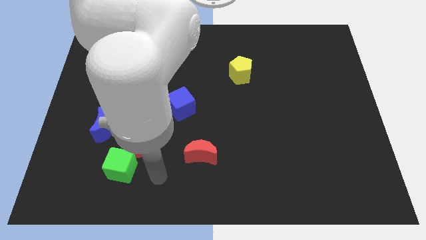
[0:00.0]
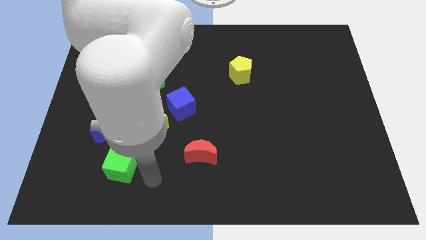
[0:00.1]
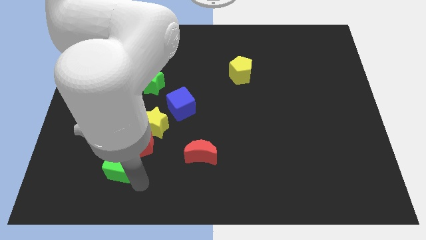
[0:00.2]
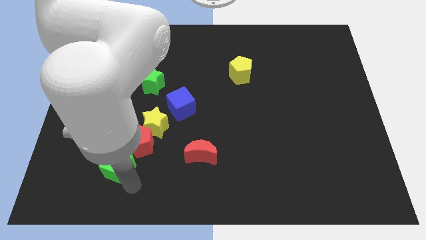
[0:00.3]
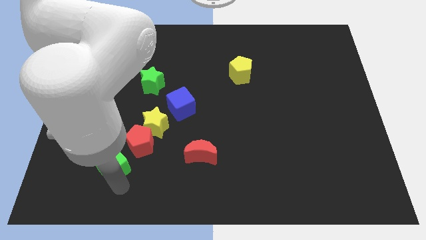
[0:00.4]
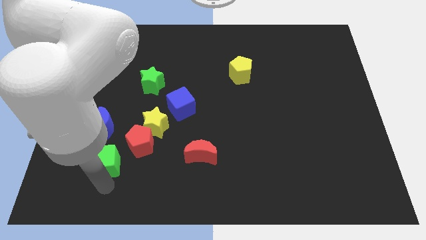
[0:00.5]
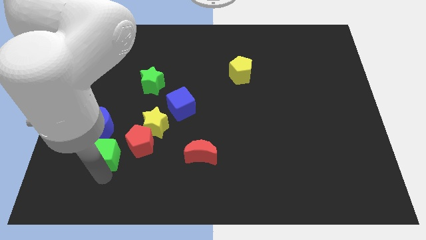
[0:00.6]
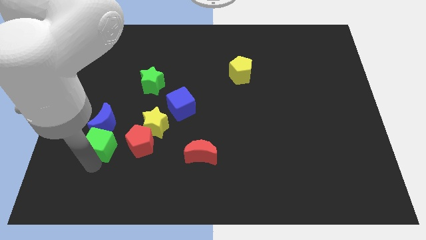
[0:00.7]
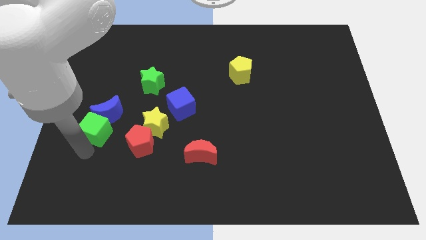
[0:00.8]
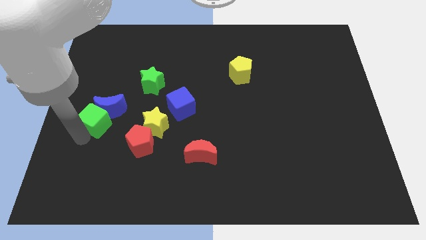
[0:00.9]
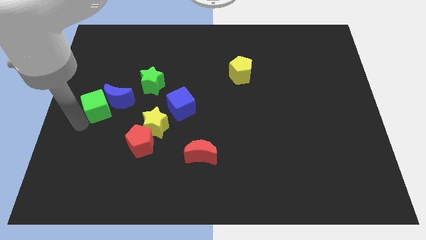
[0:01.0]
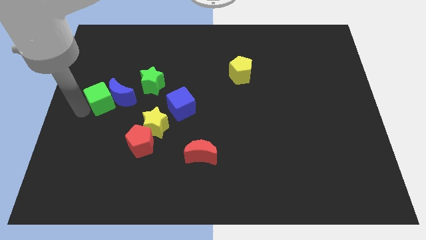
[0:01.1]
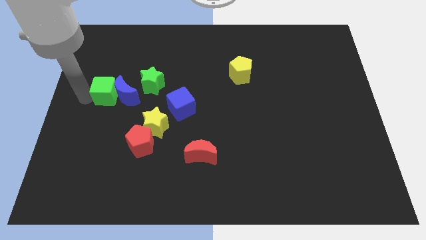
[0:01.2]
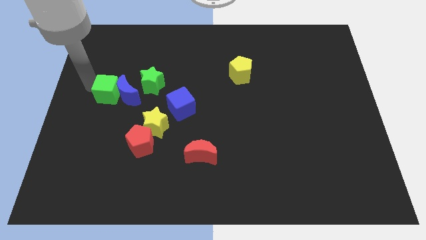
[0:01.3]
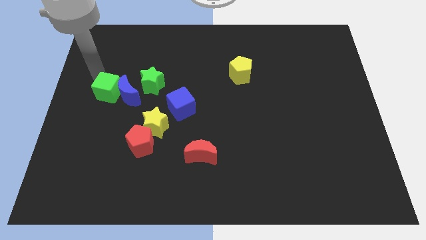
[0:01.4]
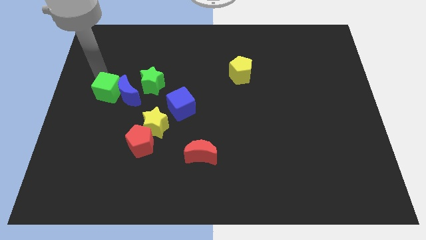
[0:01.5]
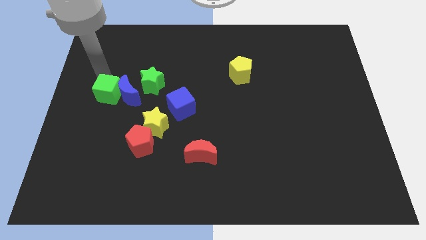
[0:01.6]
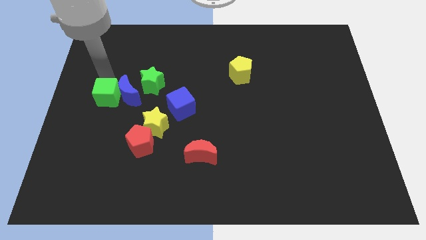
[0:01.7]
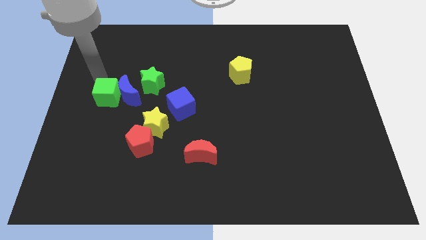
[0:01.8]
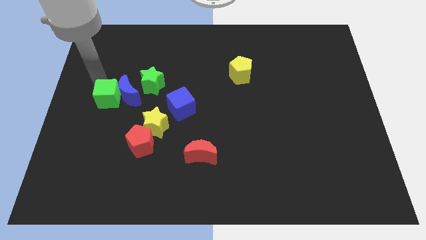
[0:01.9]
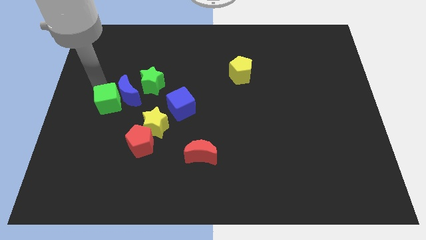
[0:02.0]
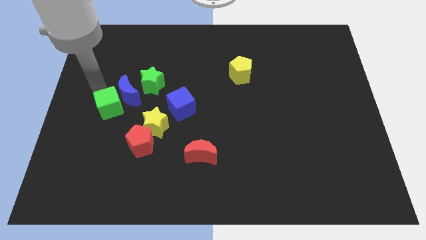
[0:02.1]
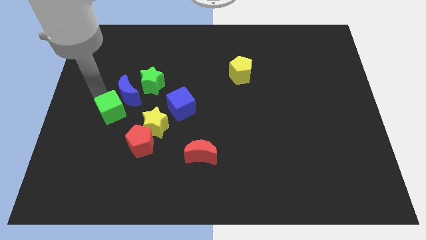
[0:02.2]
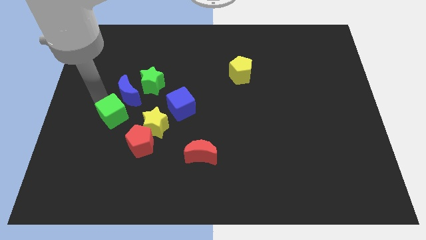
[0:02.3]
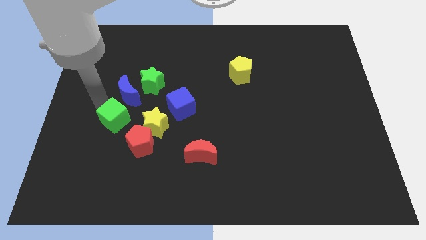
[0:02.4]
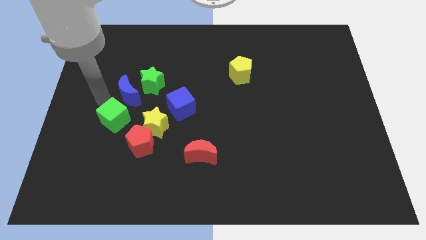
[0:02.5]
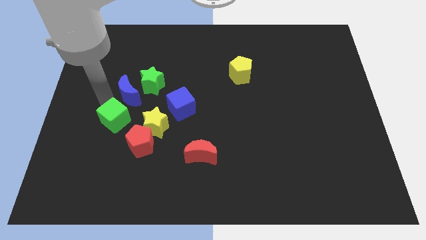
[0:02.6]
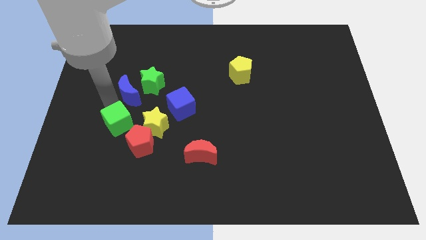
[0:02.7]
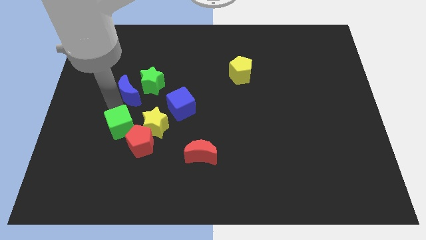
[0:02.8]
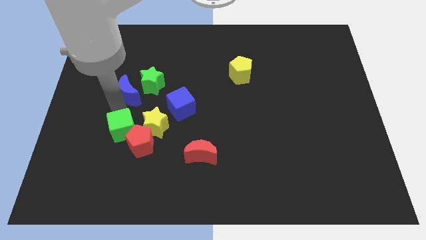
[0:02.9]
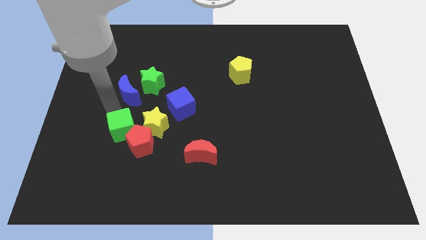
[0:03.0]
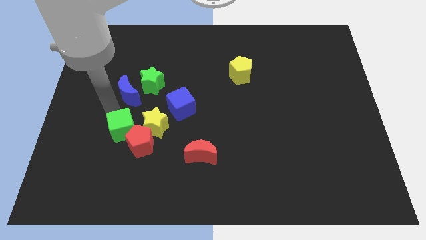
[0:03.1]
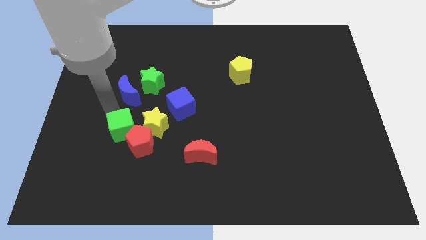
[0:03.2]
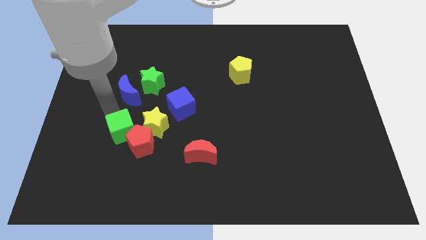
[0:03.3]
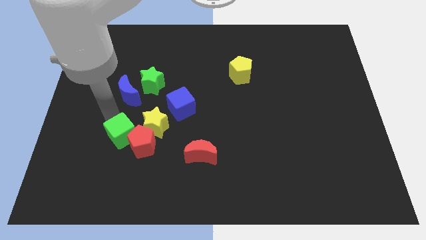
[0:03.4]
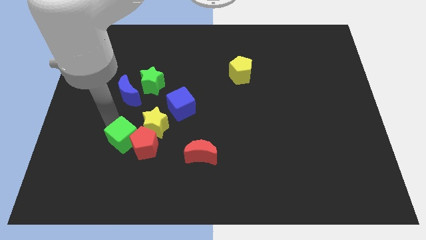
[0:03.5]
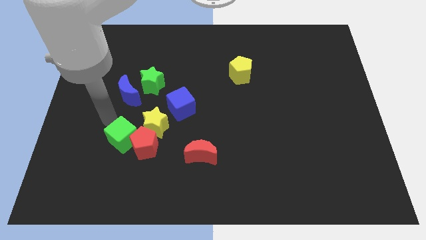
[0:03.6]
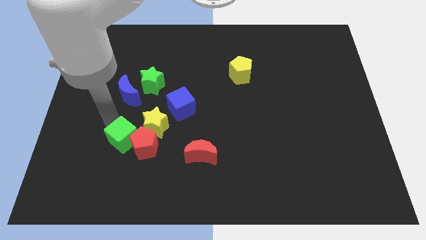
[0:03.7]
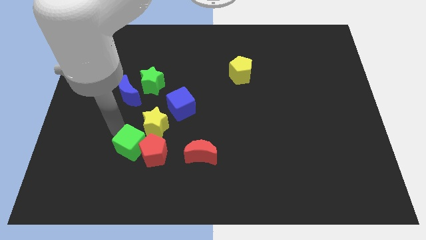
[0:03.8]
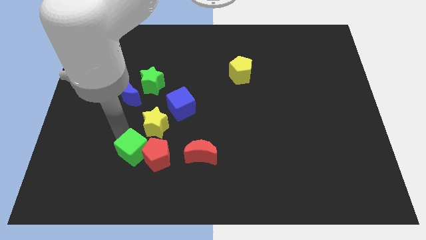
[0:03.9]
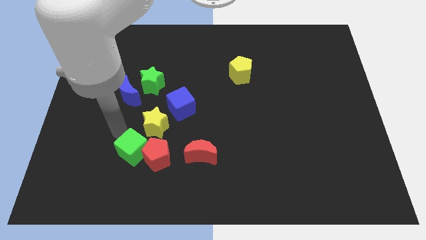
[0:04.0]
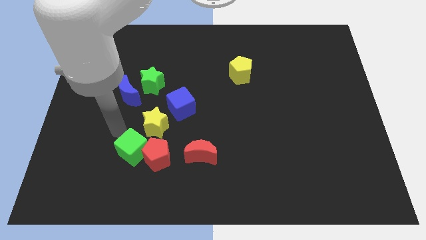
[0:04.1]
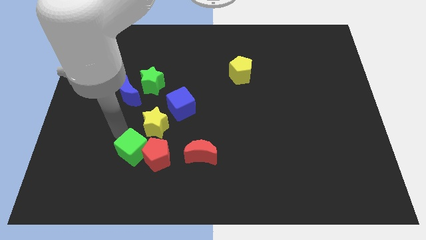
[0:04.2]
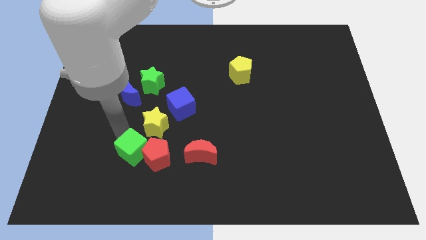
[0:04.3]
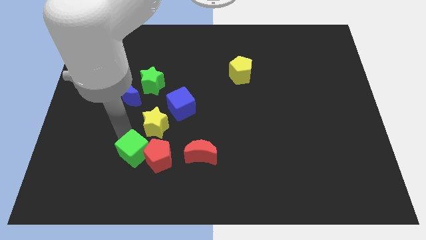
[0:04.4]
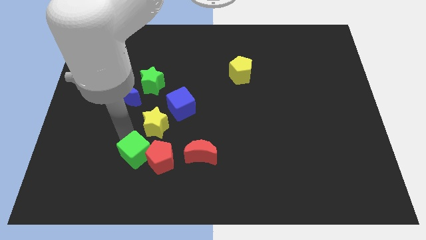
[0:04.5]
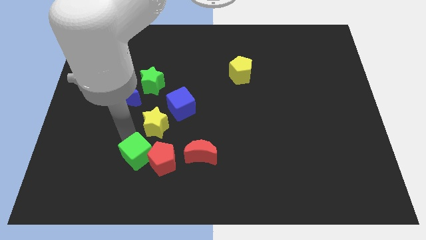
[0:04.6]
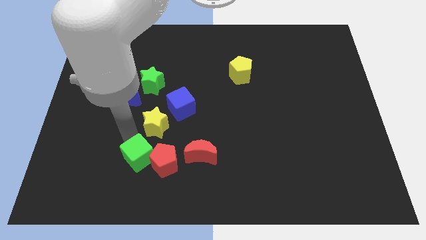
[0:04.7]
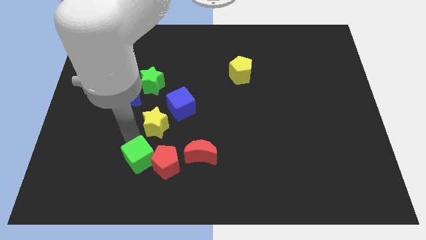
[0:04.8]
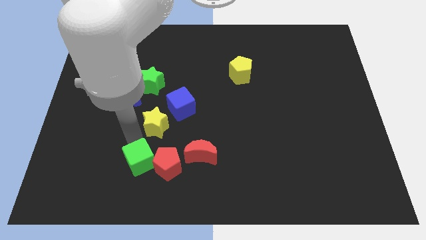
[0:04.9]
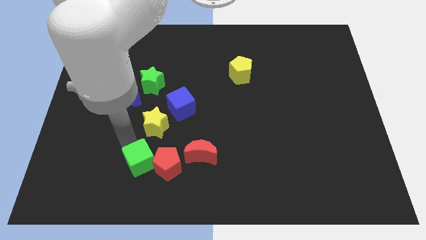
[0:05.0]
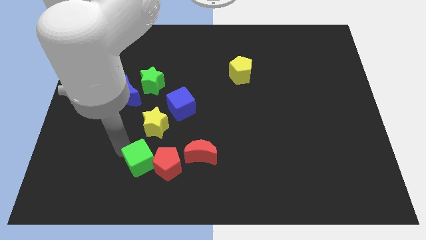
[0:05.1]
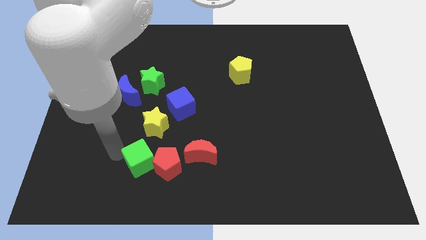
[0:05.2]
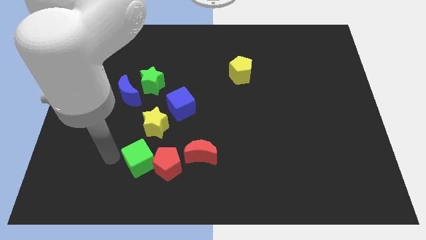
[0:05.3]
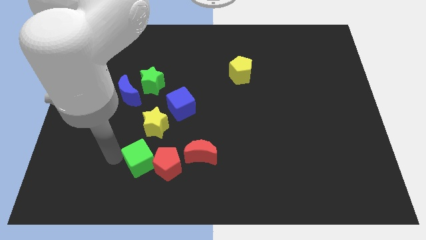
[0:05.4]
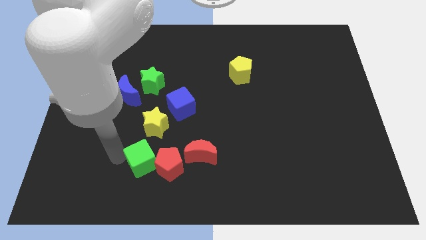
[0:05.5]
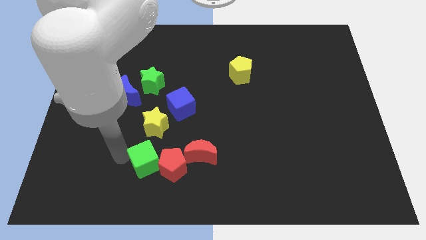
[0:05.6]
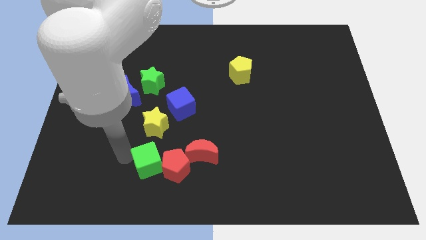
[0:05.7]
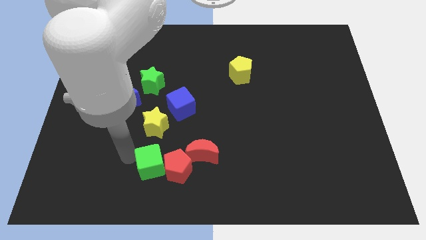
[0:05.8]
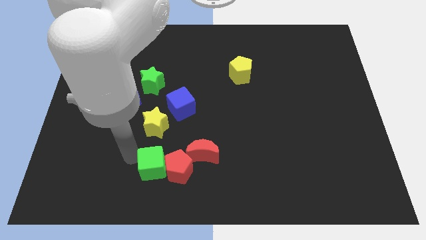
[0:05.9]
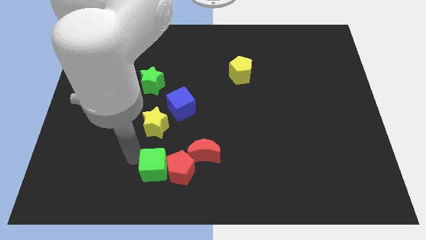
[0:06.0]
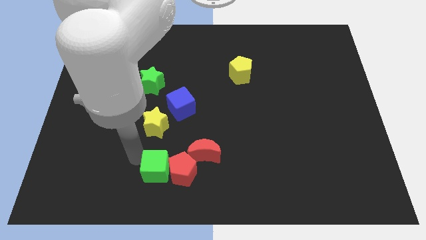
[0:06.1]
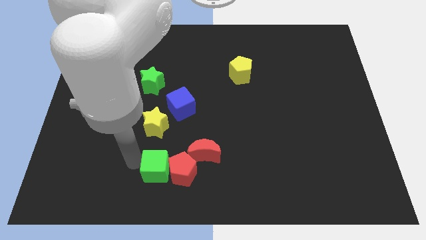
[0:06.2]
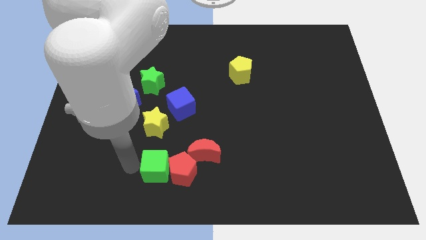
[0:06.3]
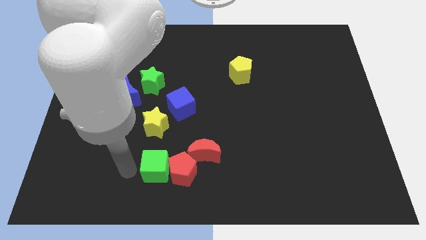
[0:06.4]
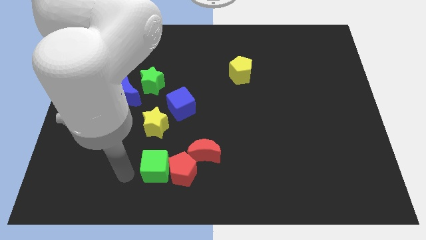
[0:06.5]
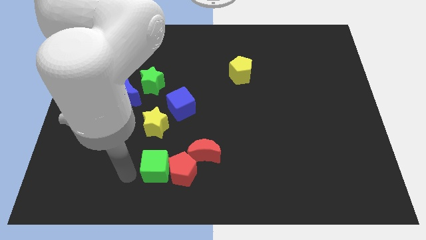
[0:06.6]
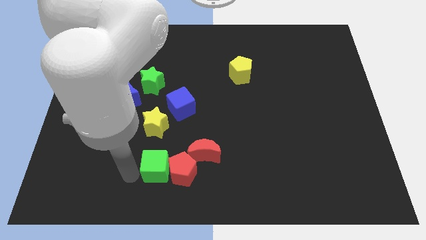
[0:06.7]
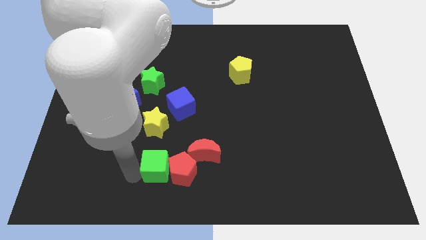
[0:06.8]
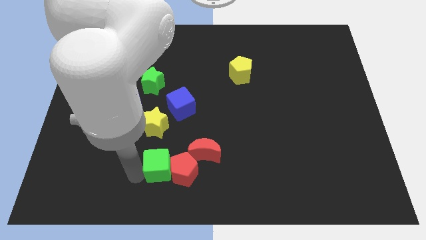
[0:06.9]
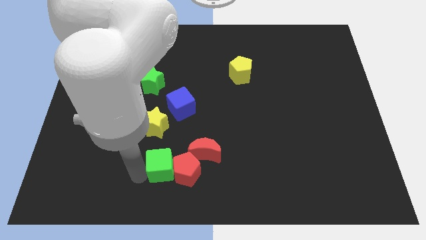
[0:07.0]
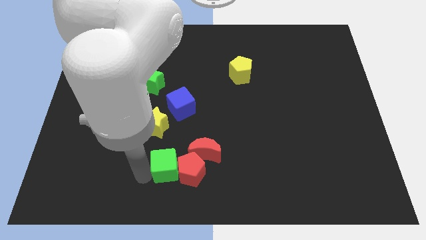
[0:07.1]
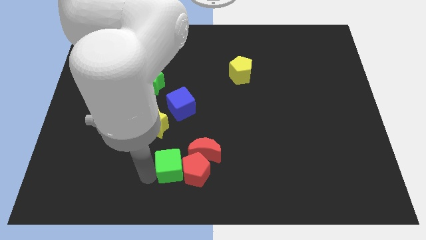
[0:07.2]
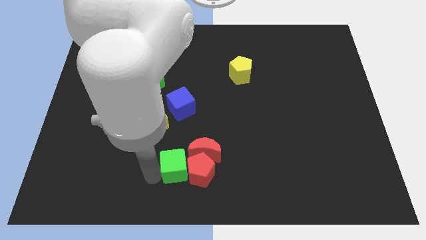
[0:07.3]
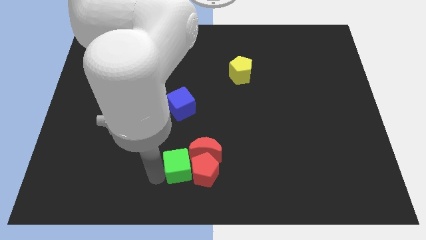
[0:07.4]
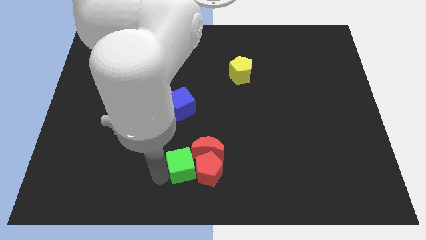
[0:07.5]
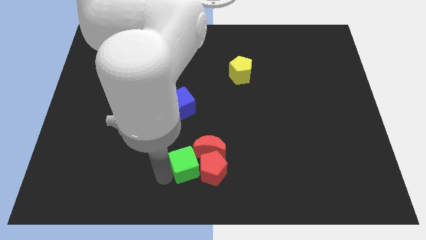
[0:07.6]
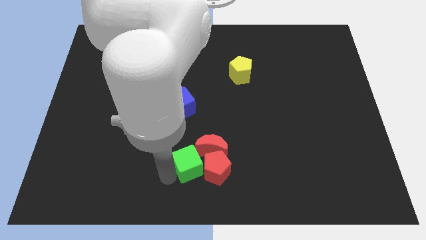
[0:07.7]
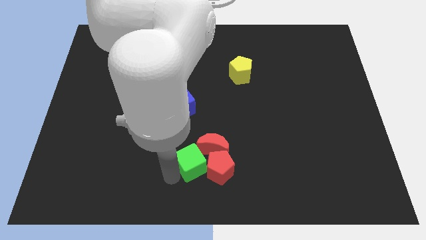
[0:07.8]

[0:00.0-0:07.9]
push the green cube towards the red moon

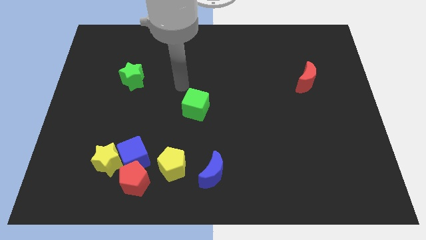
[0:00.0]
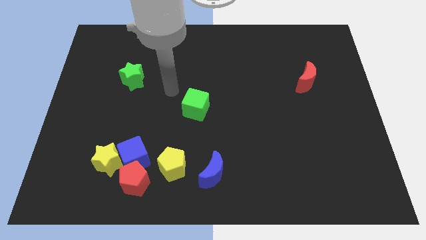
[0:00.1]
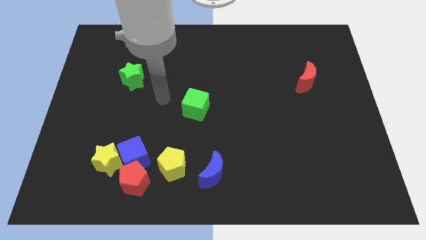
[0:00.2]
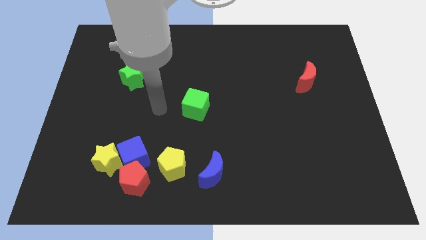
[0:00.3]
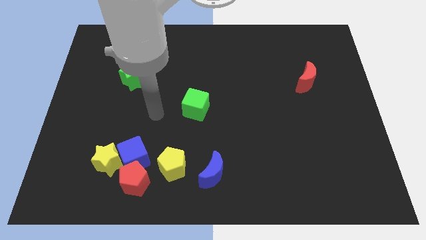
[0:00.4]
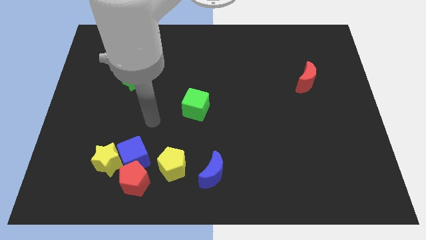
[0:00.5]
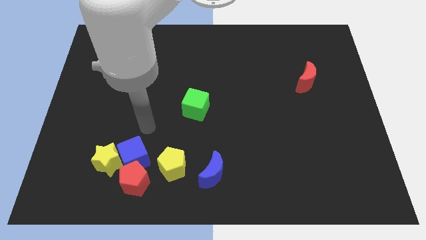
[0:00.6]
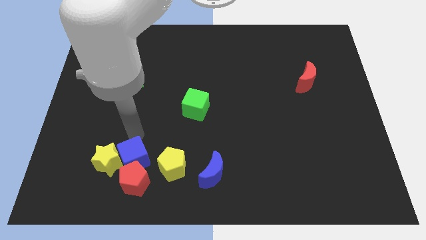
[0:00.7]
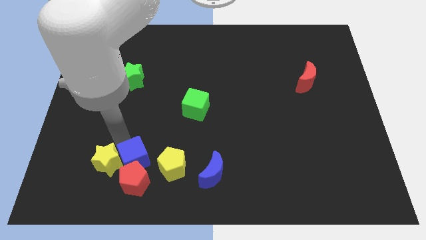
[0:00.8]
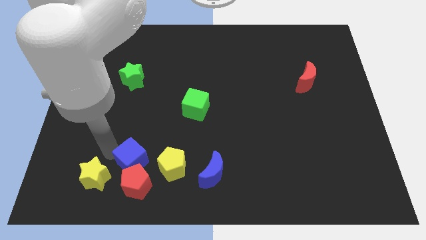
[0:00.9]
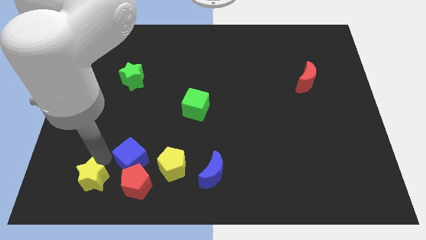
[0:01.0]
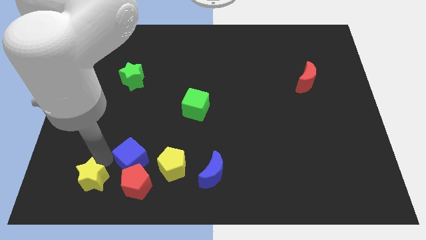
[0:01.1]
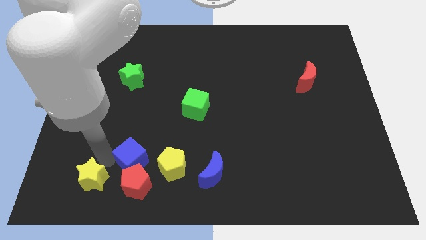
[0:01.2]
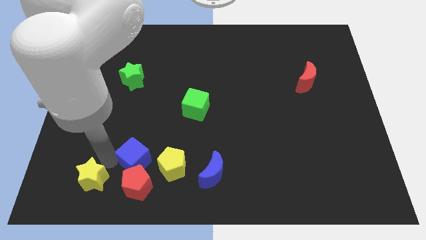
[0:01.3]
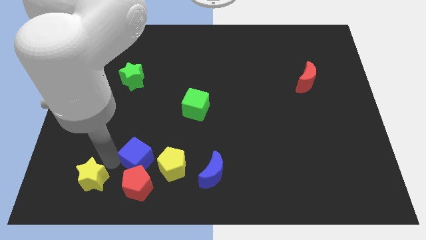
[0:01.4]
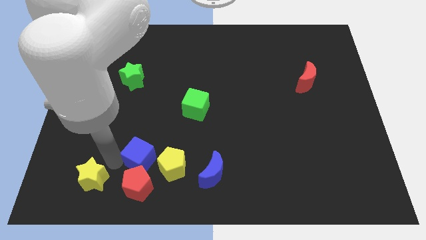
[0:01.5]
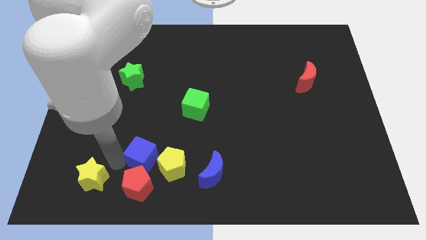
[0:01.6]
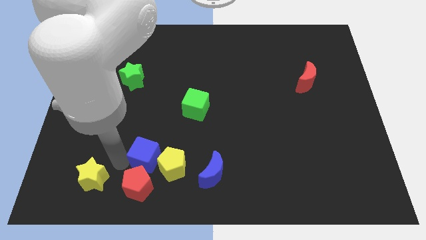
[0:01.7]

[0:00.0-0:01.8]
push the blue cube next to the yellow pentagon
